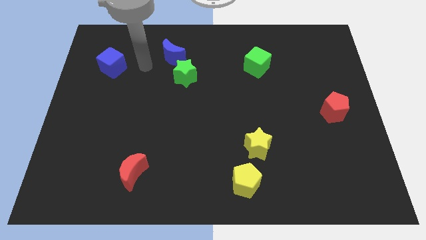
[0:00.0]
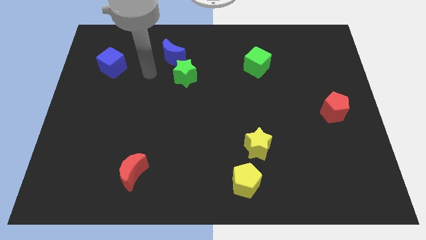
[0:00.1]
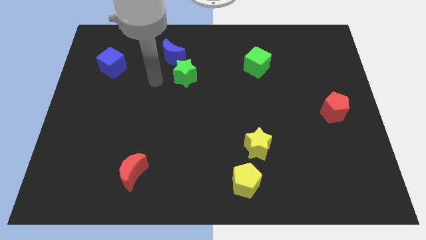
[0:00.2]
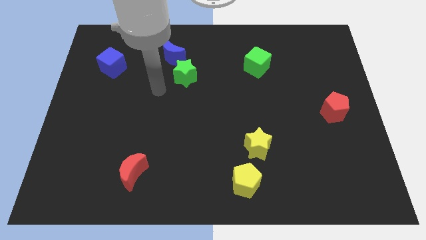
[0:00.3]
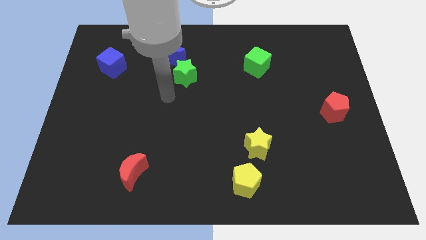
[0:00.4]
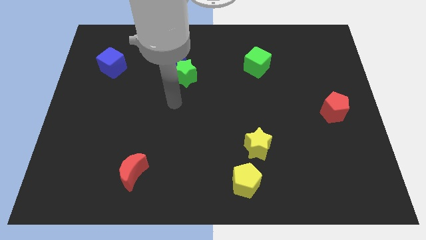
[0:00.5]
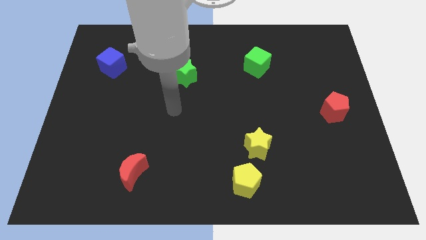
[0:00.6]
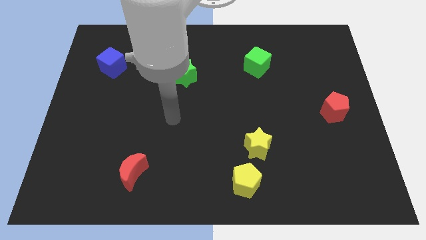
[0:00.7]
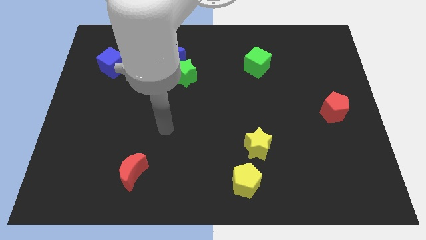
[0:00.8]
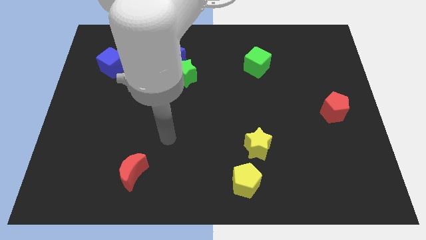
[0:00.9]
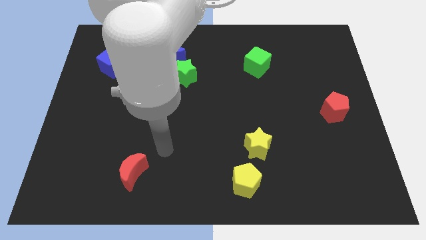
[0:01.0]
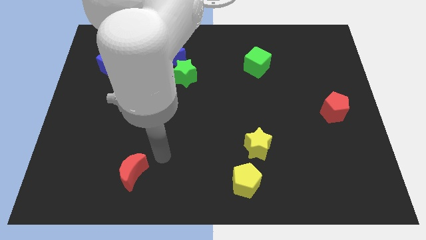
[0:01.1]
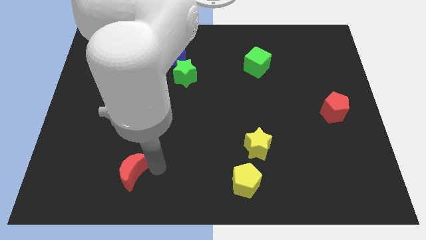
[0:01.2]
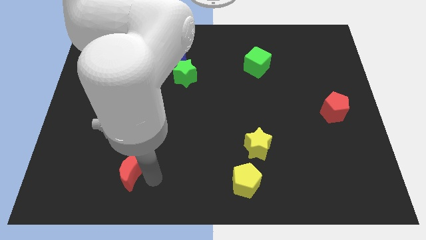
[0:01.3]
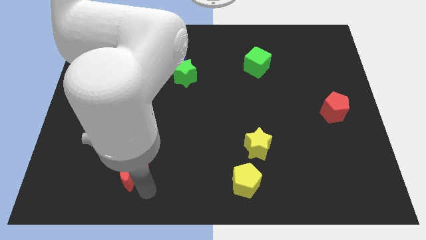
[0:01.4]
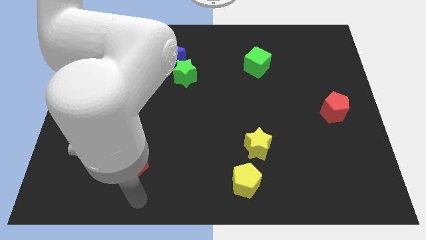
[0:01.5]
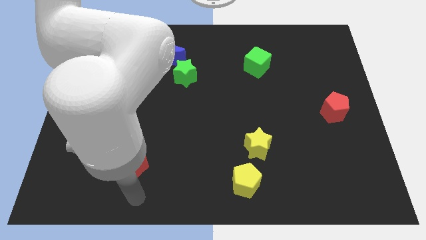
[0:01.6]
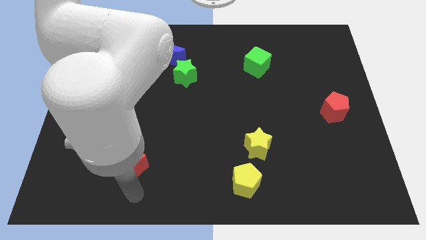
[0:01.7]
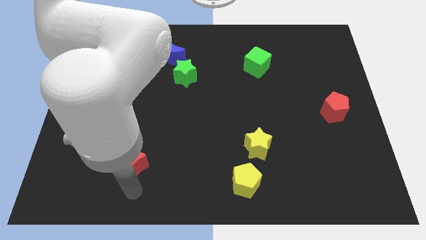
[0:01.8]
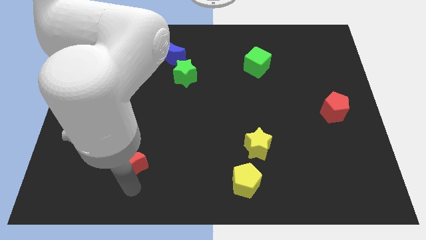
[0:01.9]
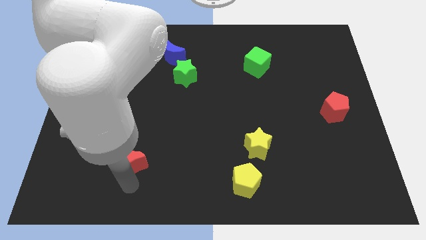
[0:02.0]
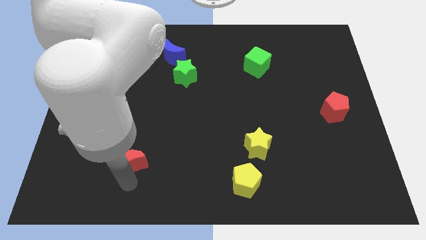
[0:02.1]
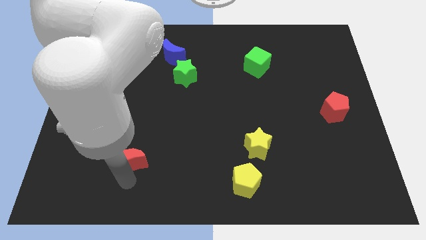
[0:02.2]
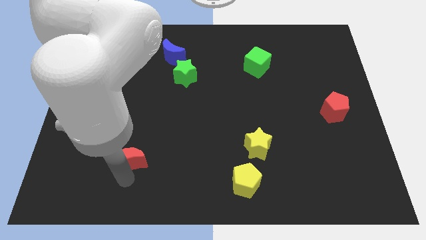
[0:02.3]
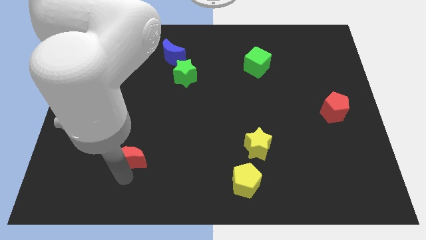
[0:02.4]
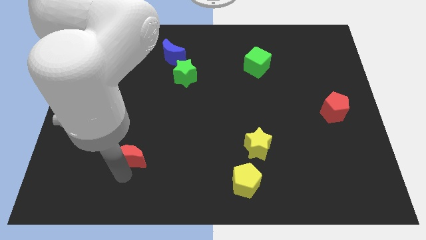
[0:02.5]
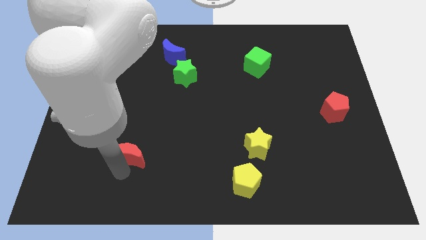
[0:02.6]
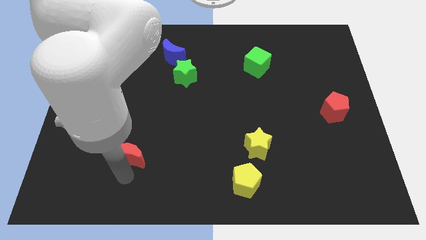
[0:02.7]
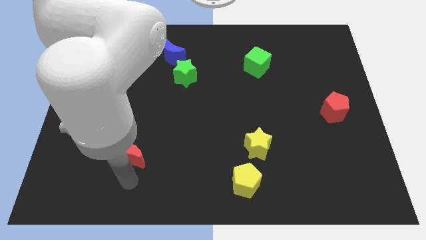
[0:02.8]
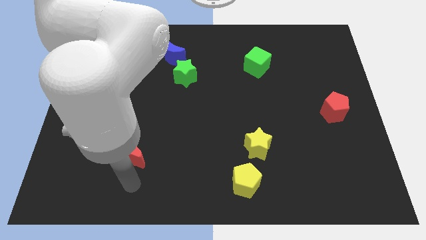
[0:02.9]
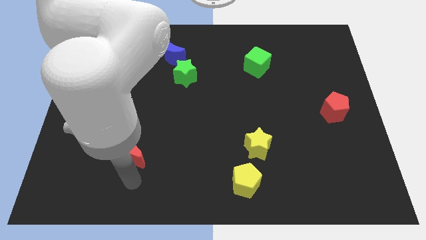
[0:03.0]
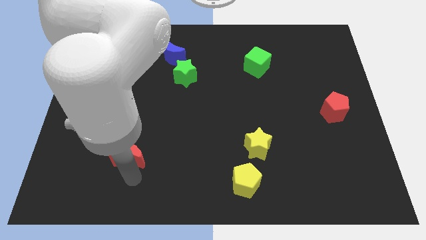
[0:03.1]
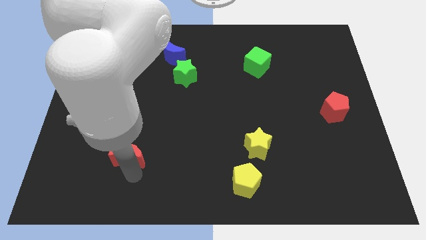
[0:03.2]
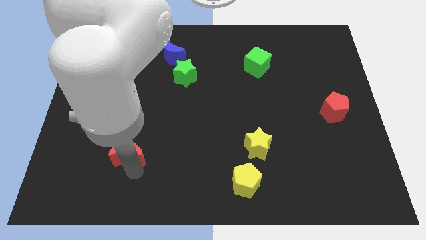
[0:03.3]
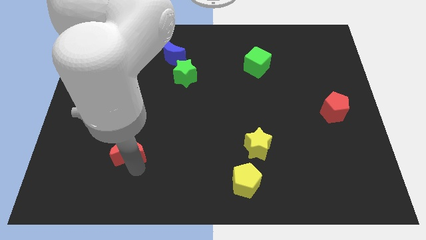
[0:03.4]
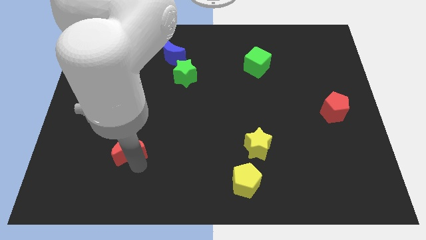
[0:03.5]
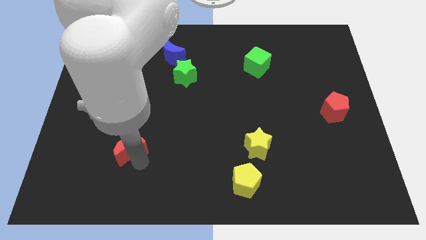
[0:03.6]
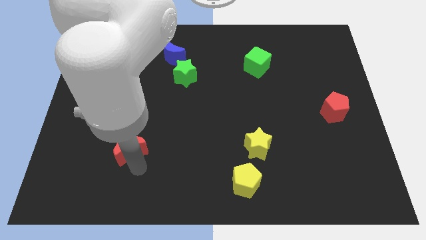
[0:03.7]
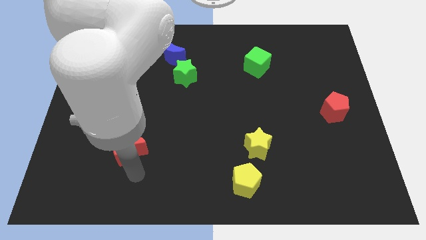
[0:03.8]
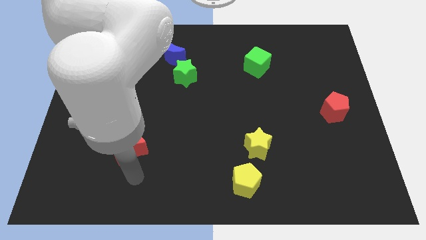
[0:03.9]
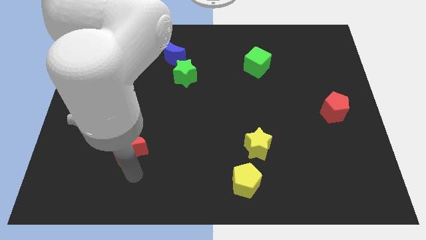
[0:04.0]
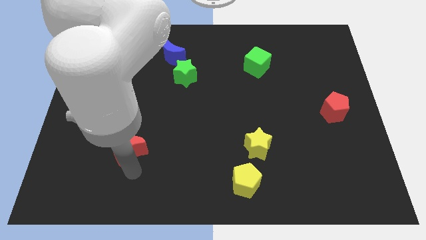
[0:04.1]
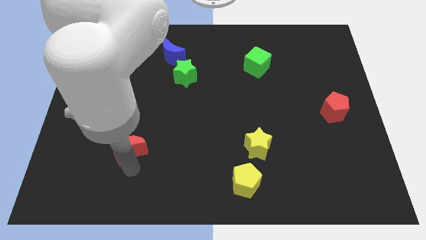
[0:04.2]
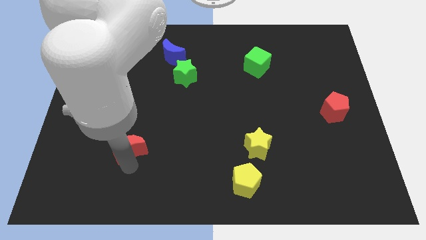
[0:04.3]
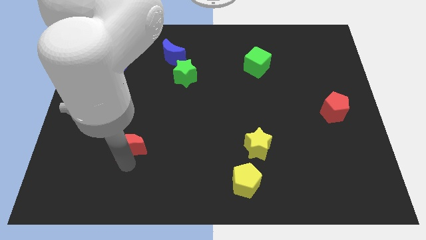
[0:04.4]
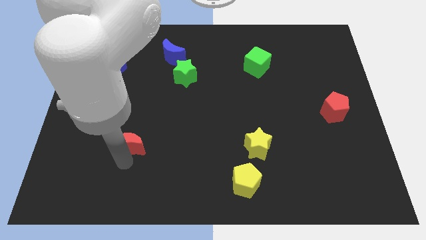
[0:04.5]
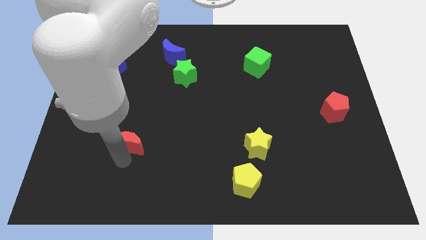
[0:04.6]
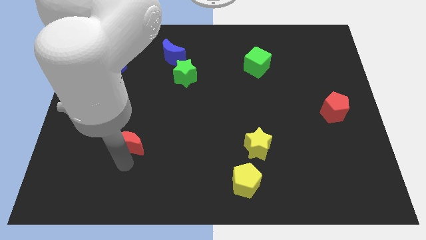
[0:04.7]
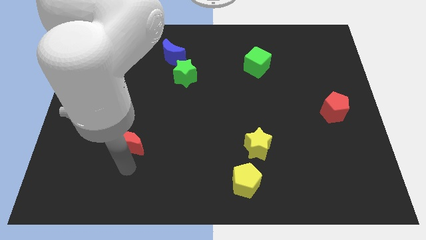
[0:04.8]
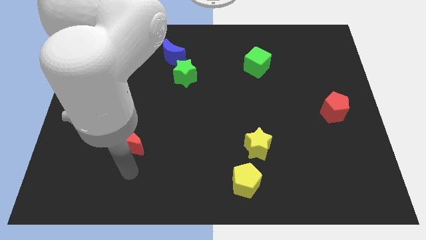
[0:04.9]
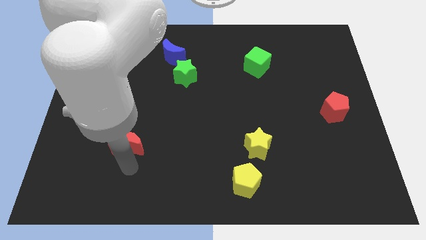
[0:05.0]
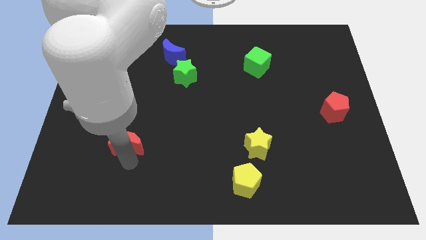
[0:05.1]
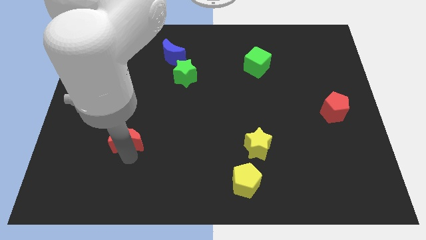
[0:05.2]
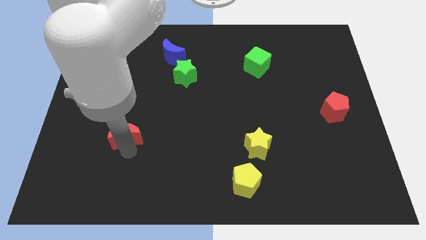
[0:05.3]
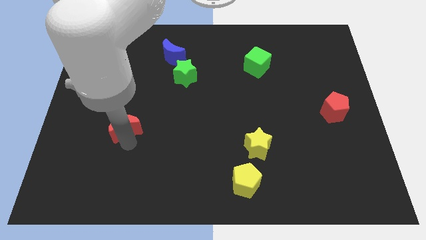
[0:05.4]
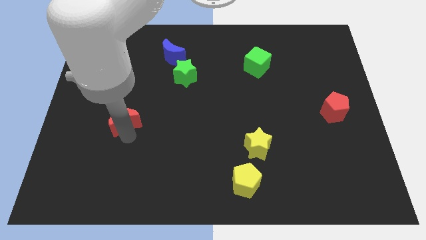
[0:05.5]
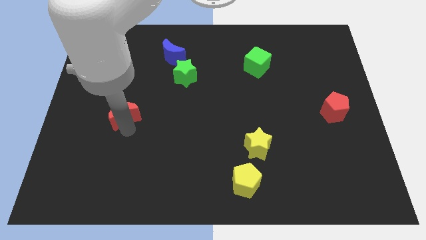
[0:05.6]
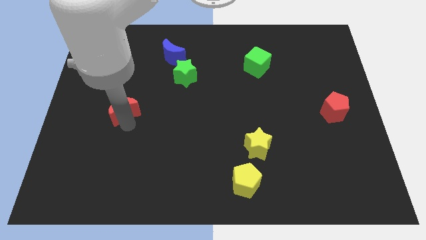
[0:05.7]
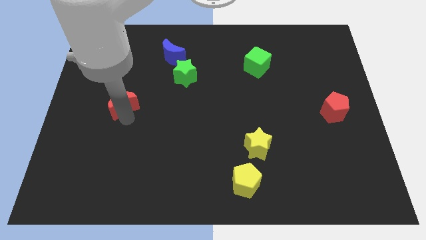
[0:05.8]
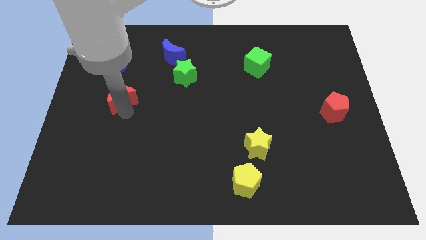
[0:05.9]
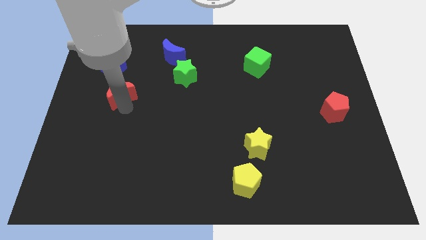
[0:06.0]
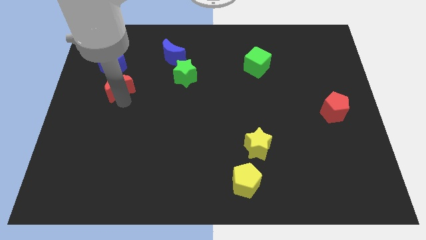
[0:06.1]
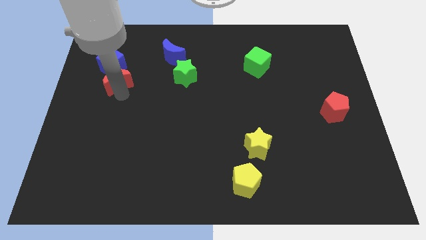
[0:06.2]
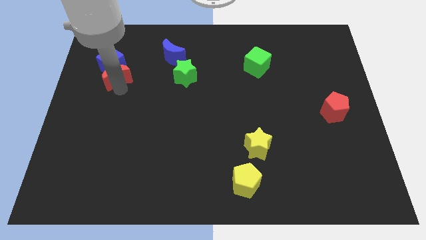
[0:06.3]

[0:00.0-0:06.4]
move the red moon next to the blue cube
